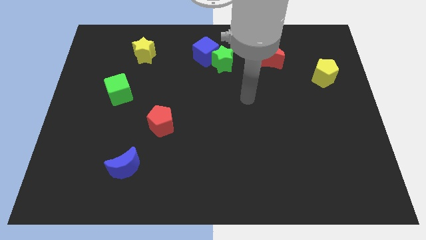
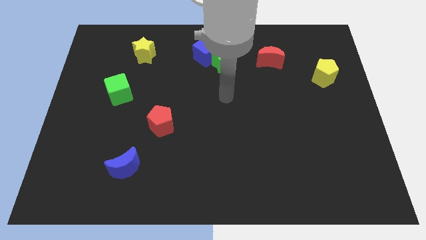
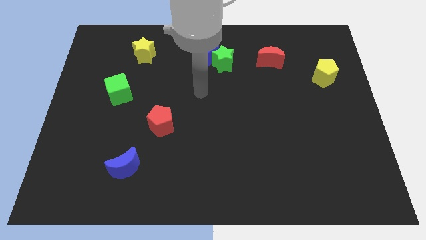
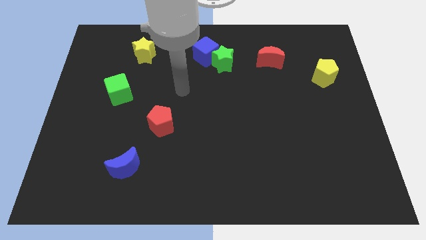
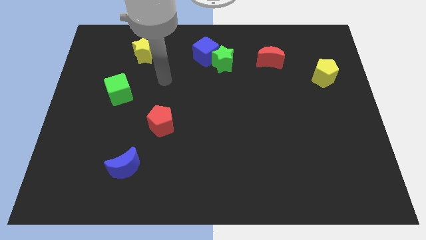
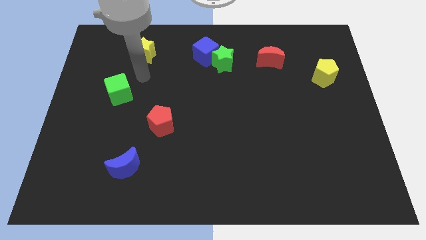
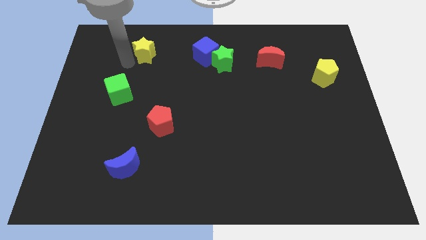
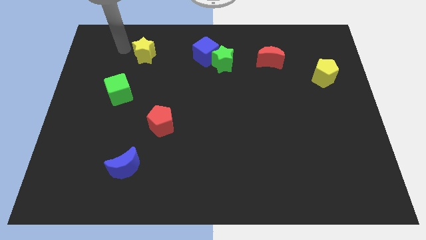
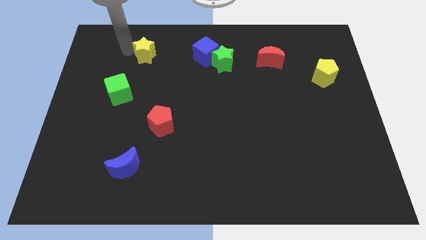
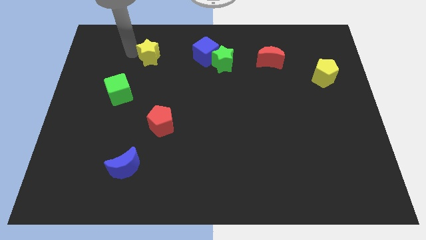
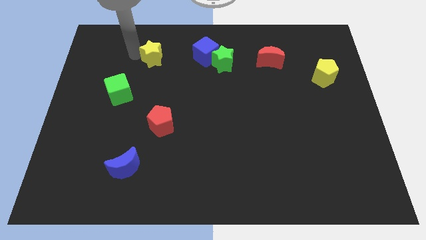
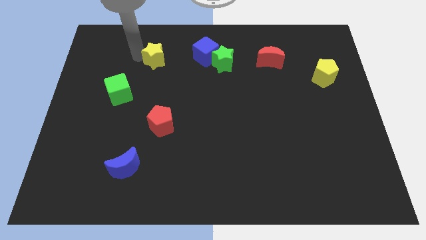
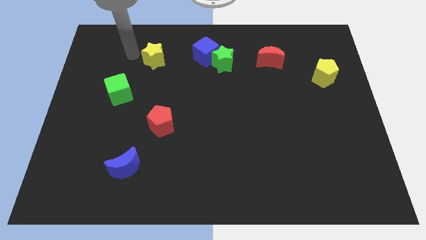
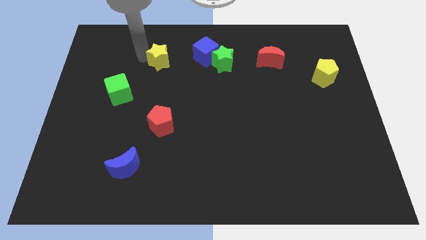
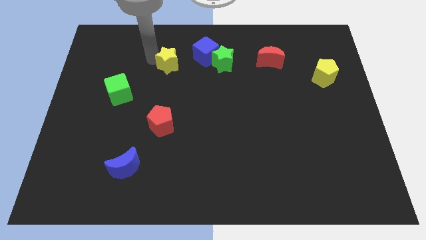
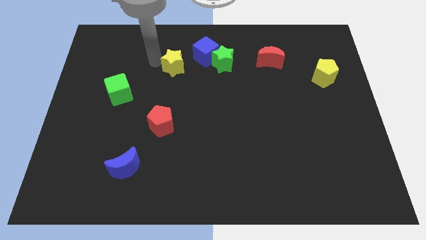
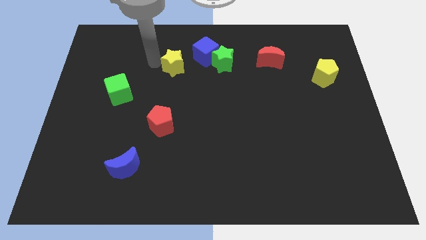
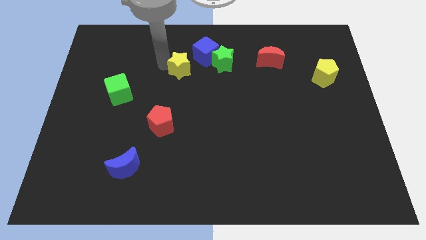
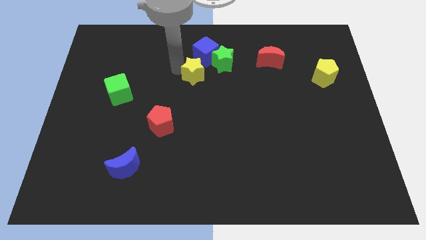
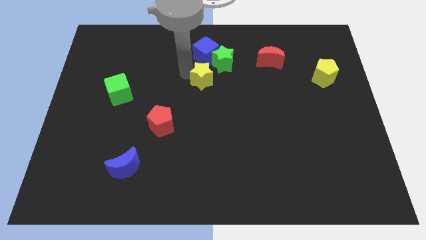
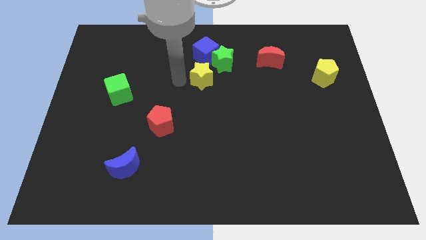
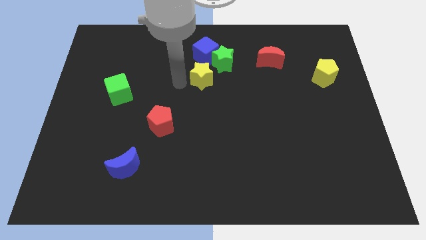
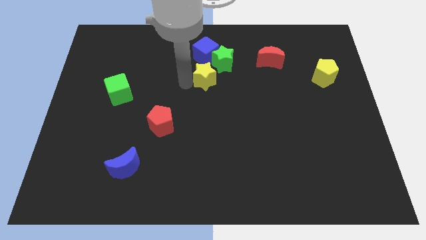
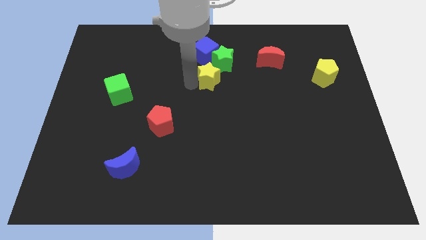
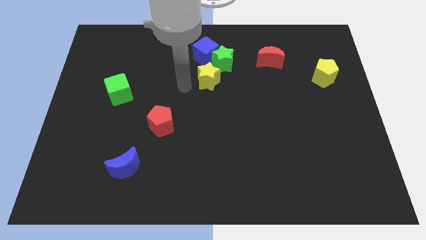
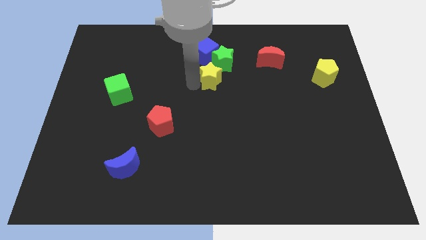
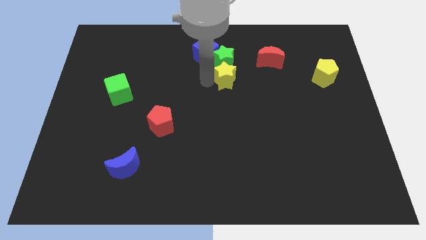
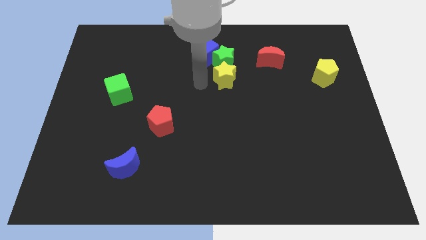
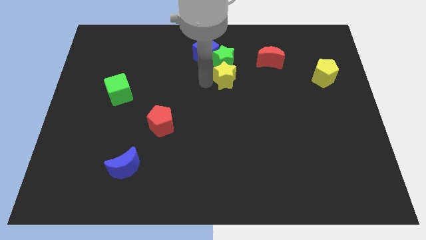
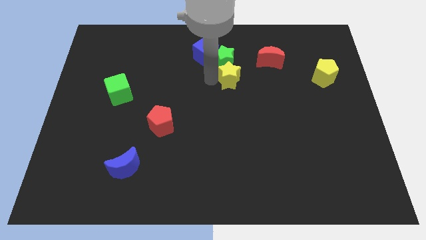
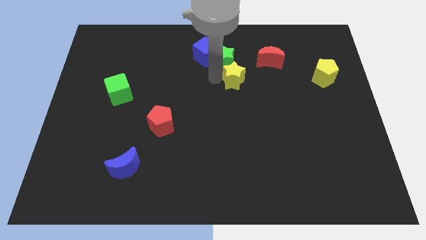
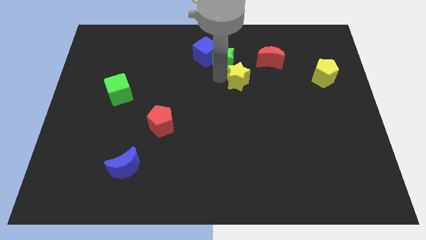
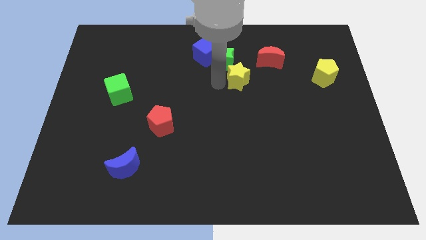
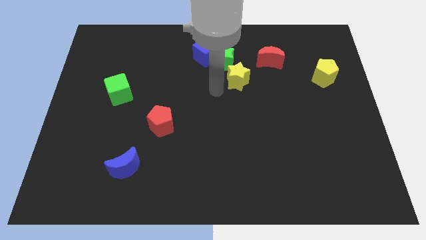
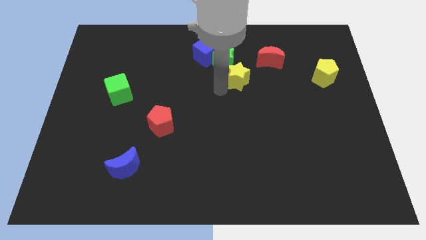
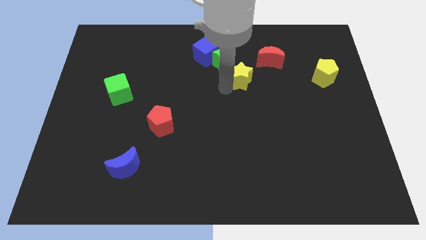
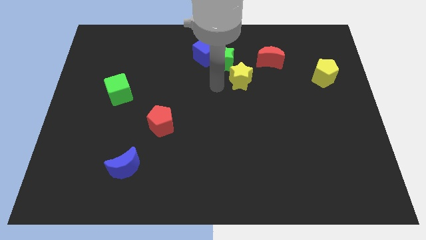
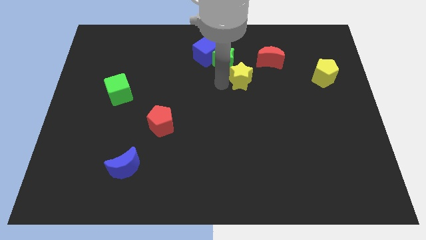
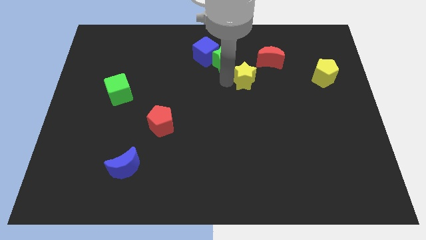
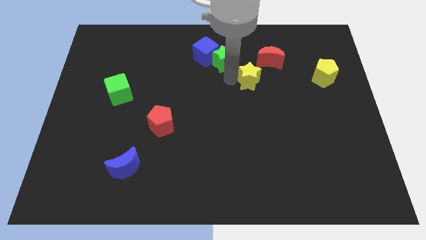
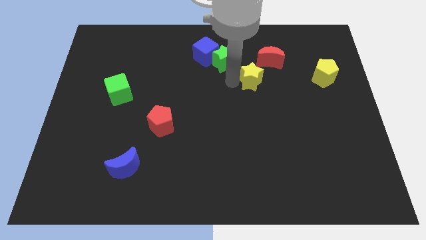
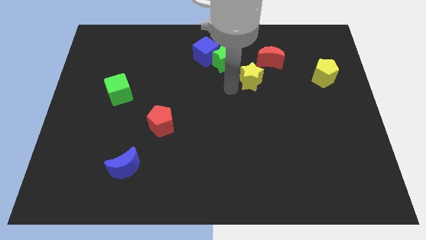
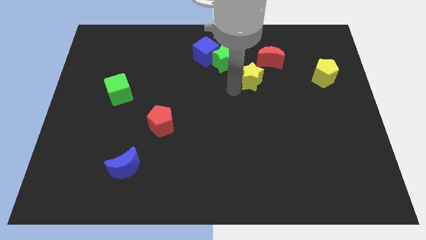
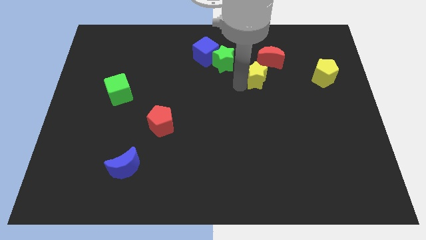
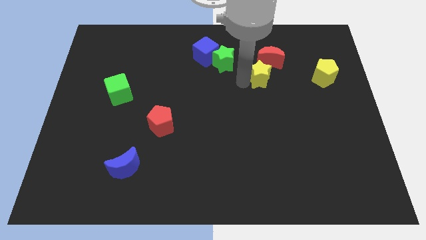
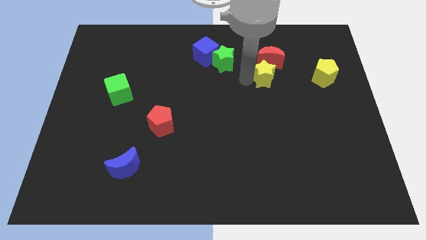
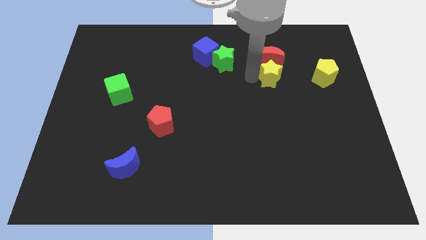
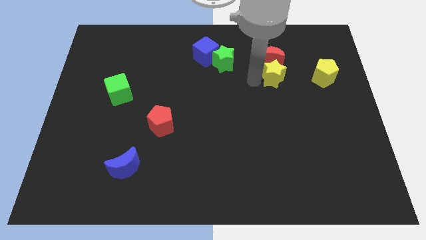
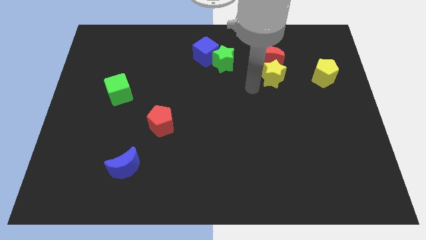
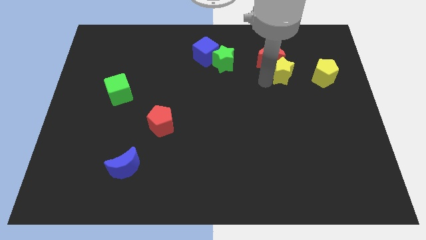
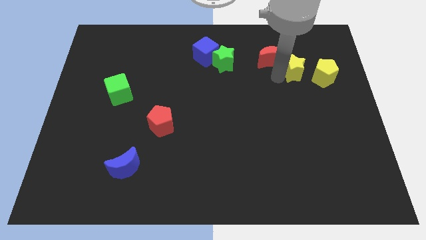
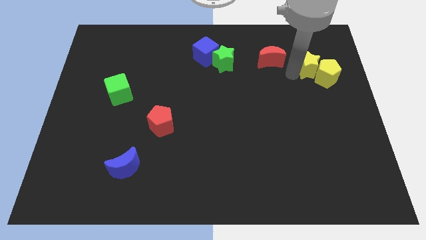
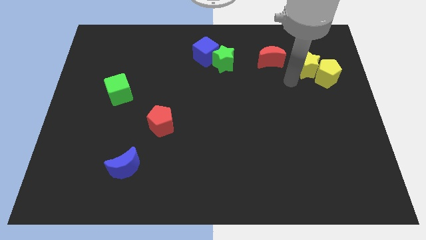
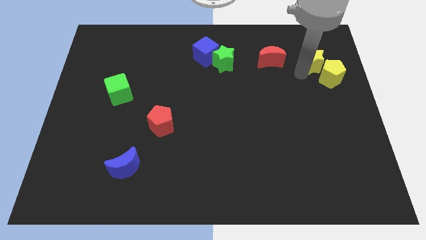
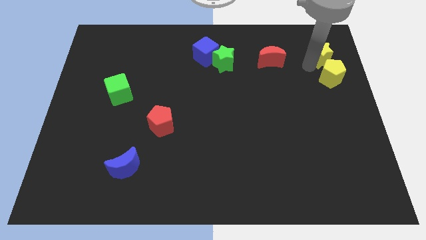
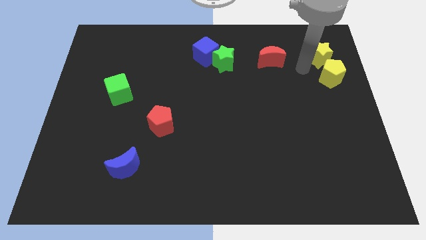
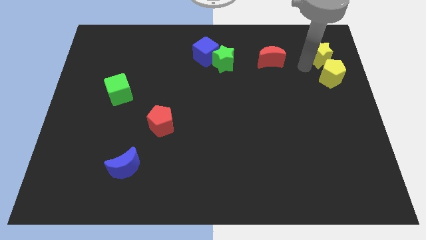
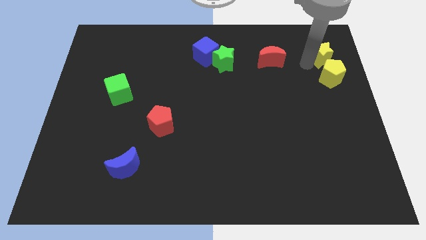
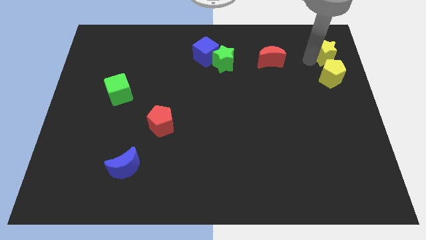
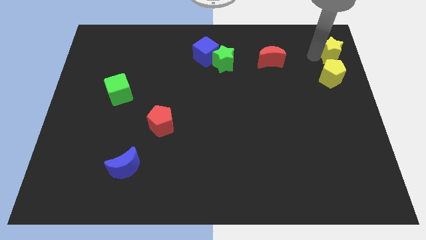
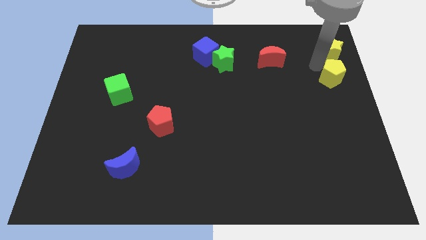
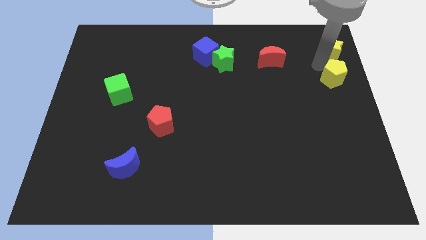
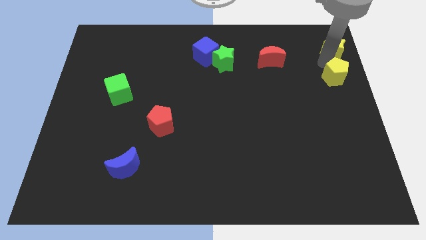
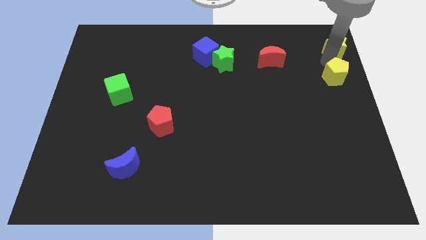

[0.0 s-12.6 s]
push the yellow star to the top right corner
